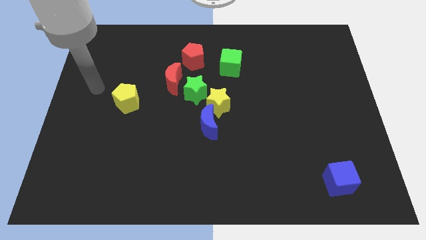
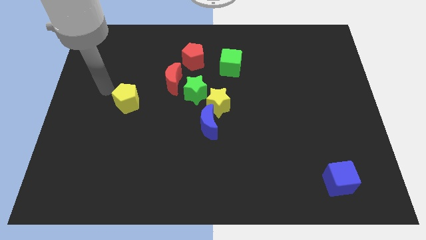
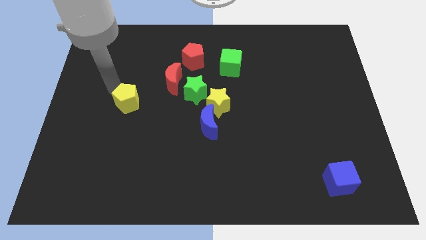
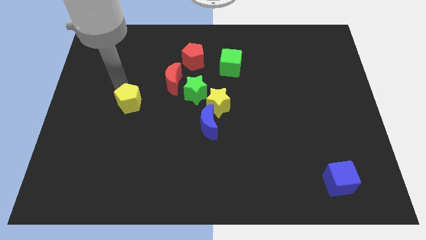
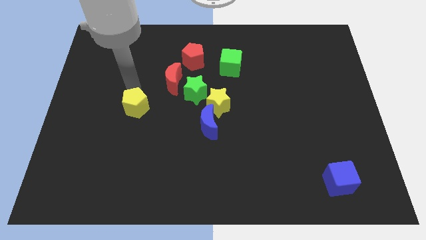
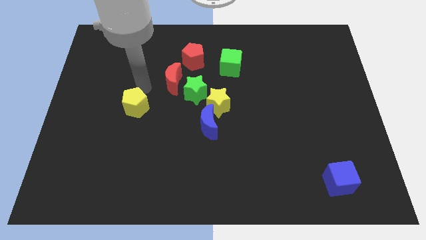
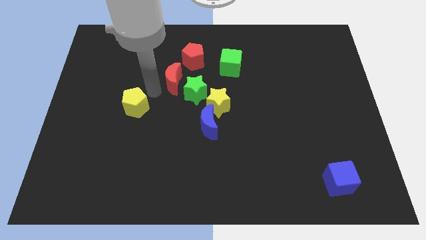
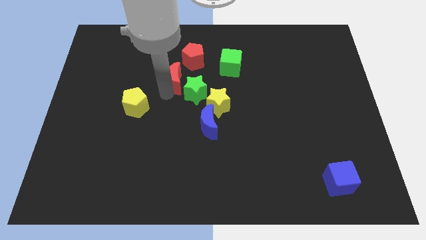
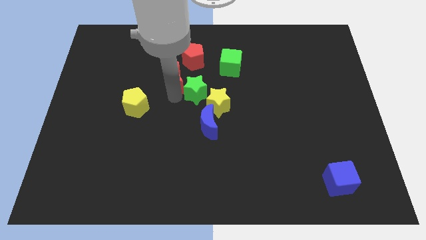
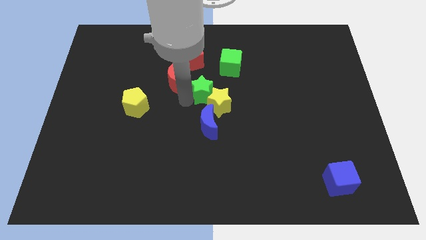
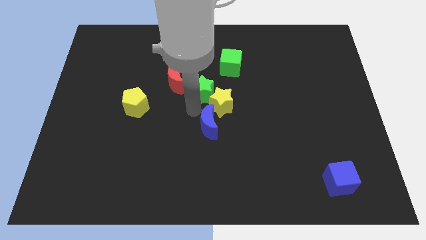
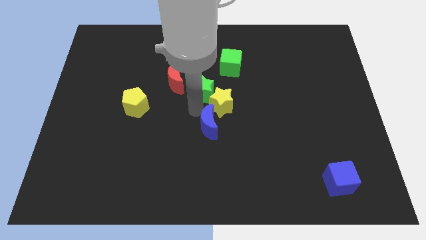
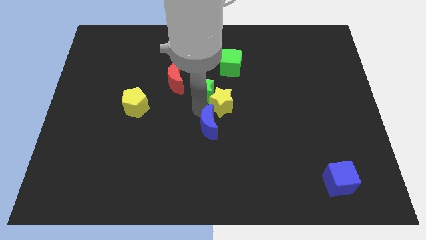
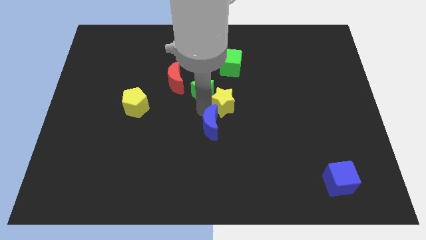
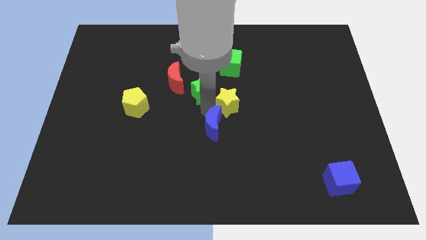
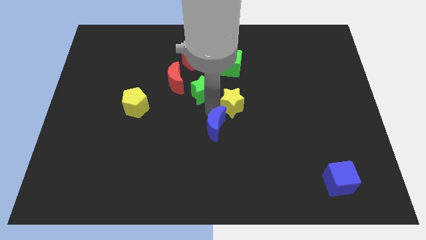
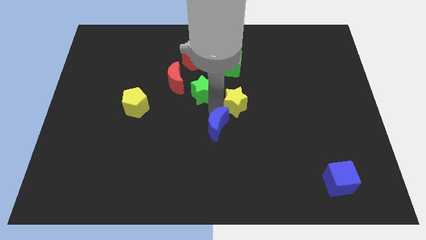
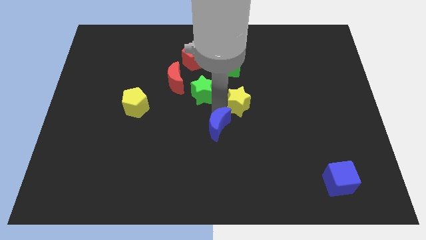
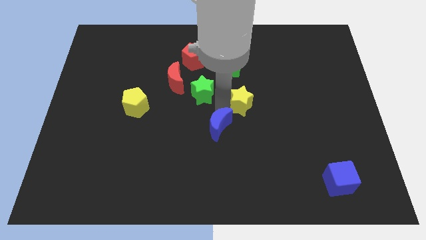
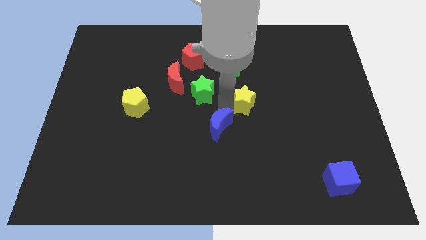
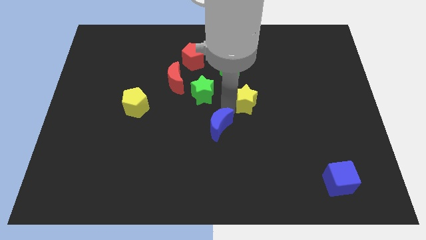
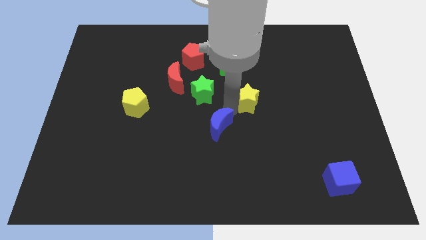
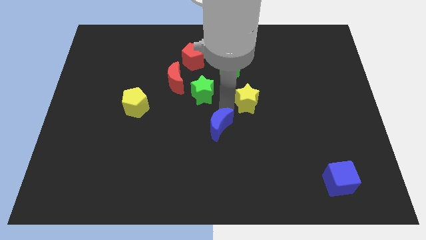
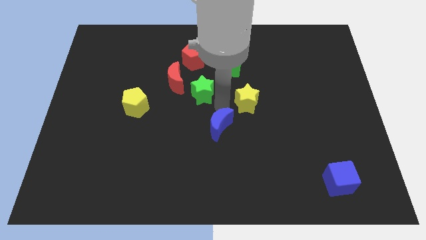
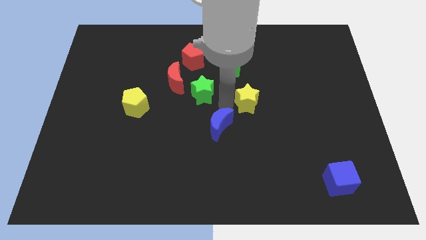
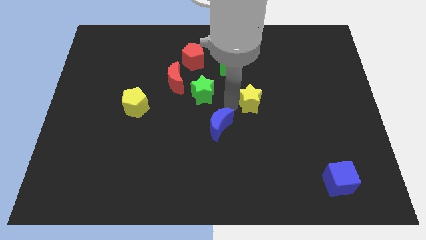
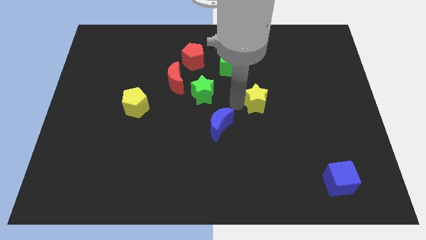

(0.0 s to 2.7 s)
pull the yellow star apart from the blue moon and green star

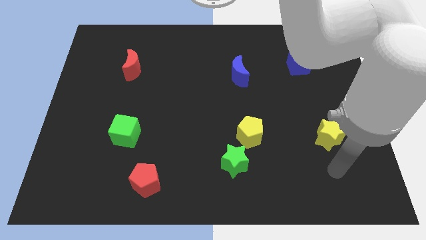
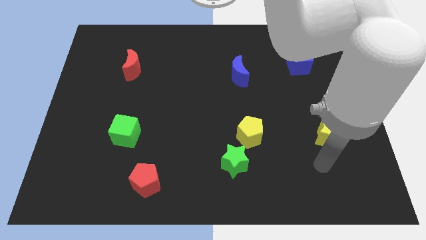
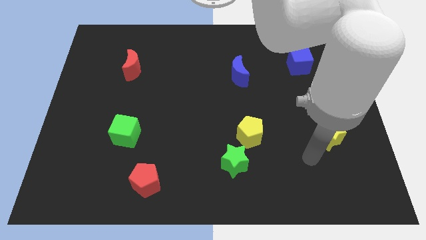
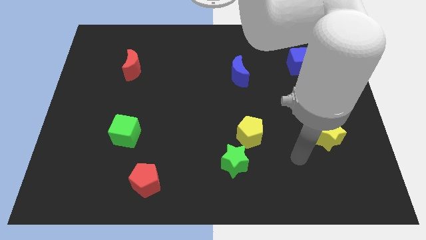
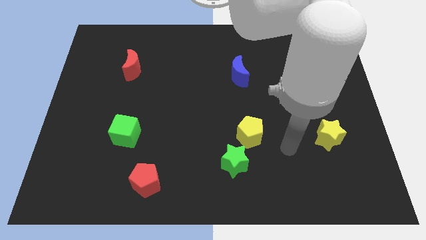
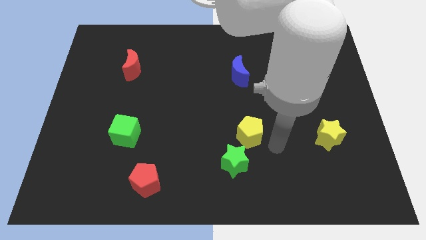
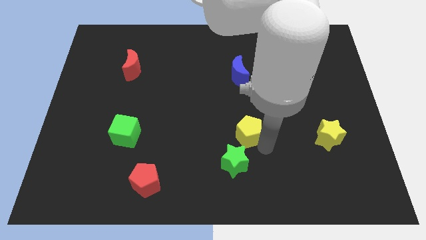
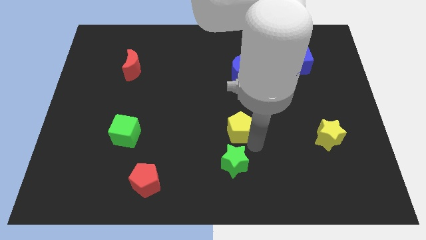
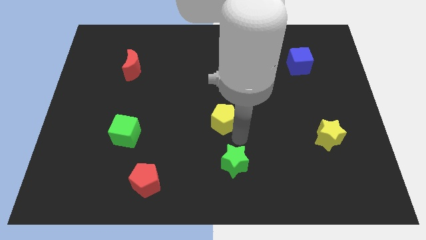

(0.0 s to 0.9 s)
separate the green star from the yellow pentagon

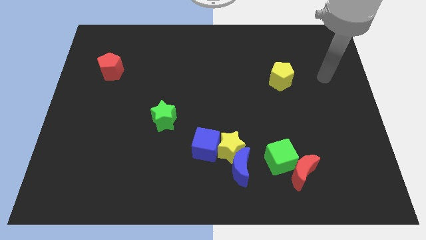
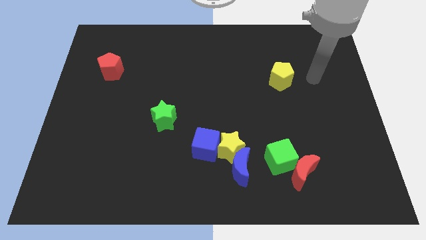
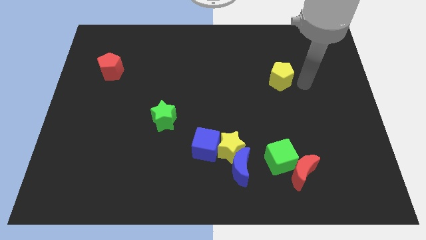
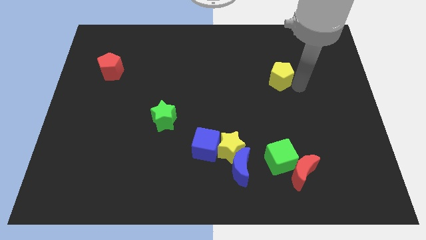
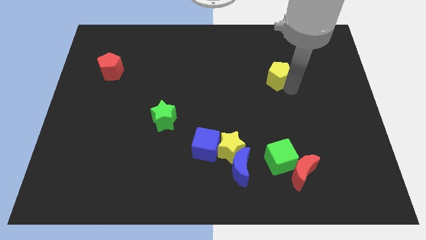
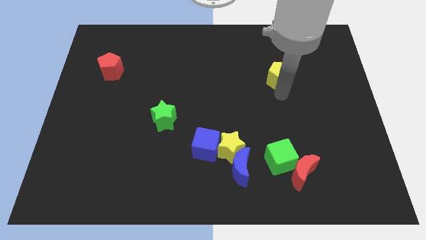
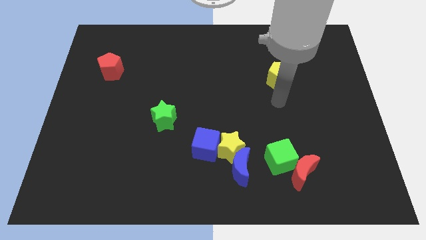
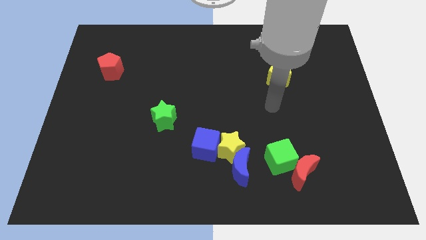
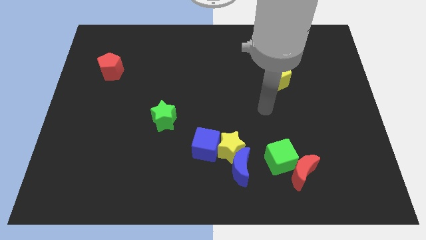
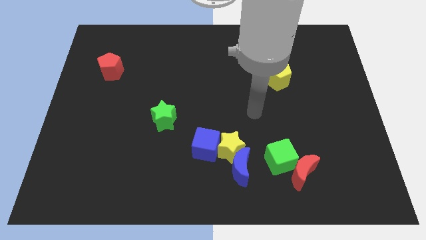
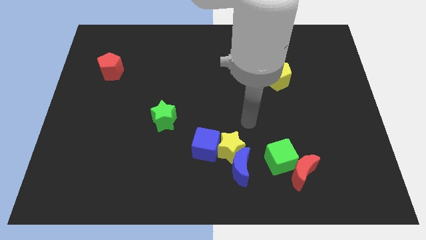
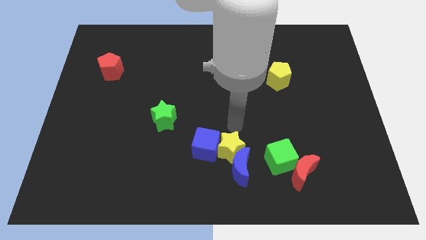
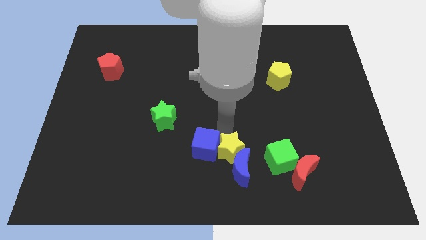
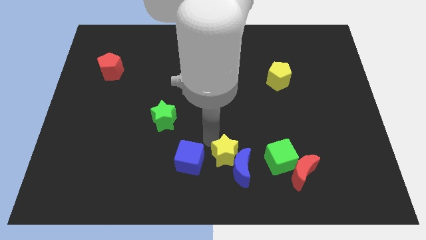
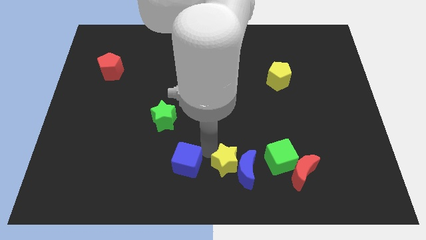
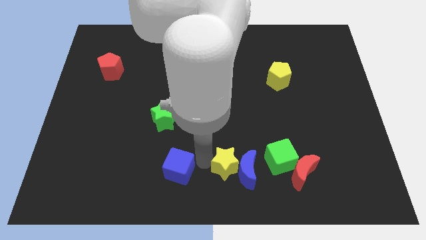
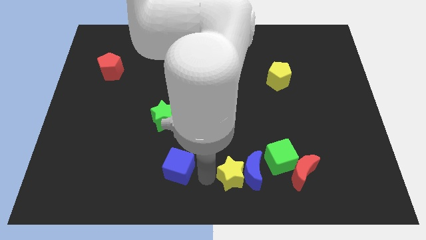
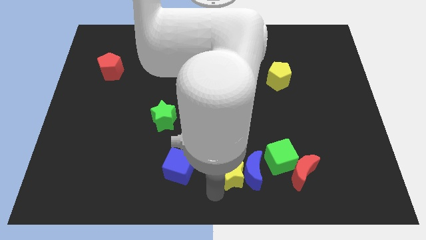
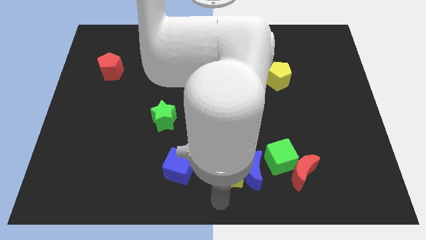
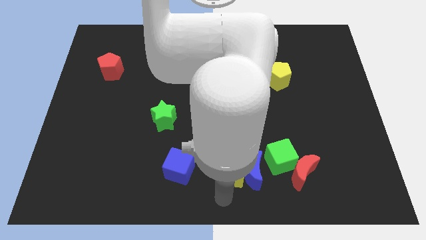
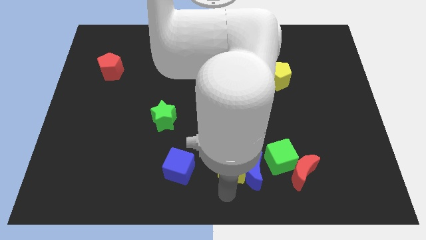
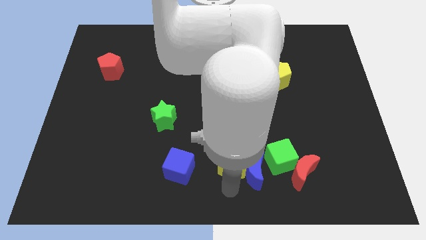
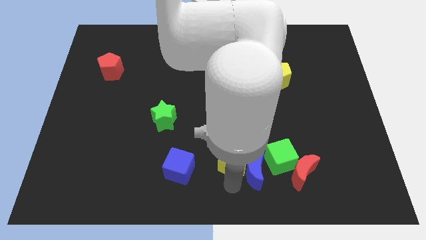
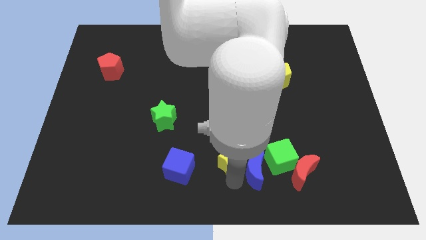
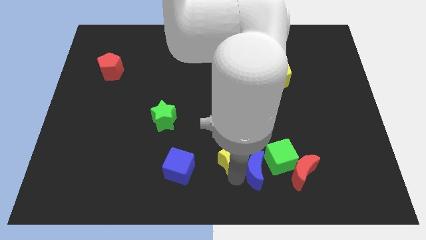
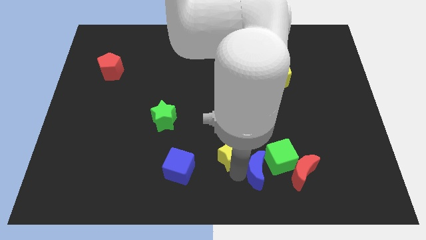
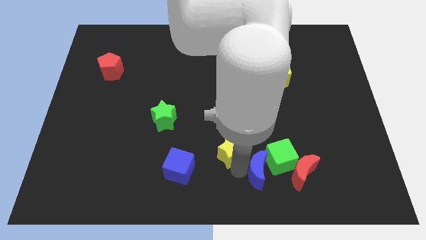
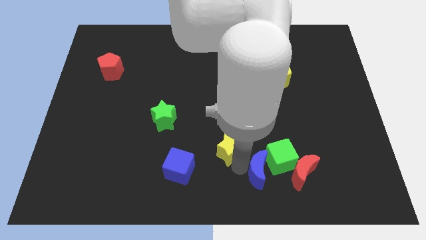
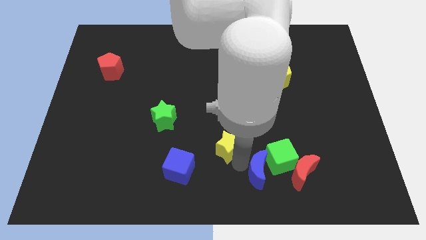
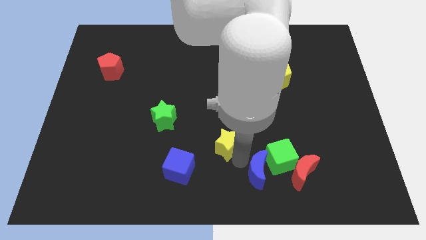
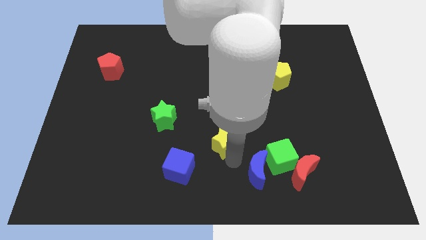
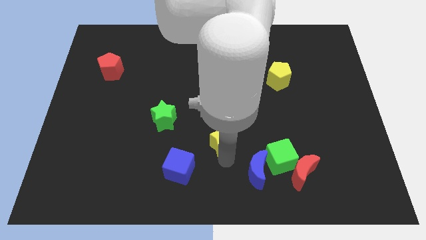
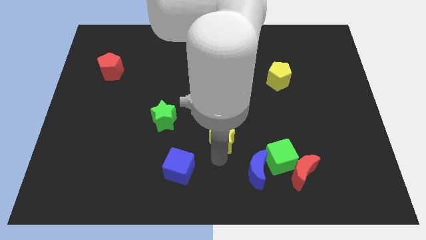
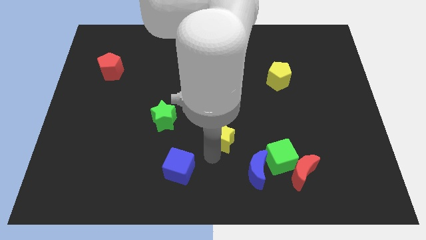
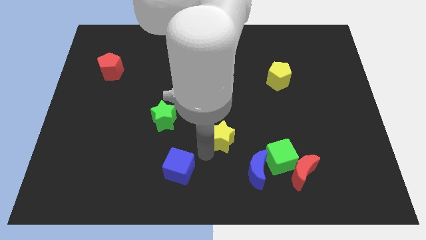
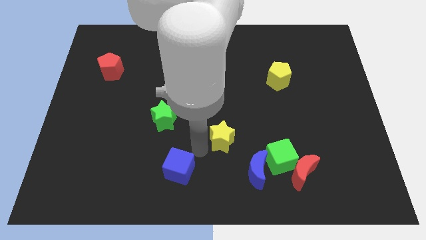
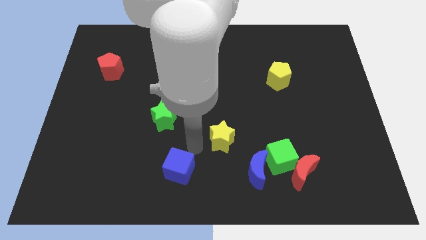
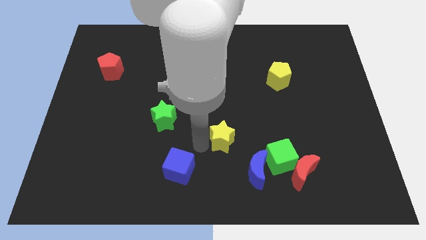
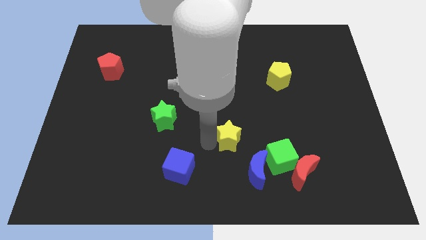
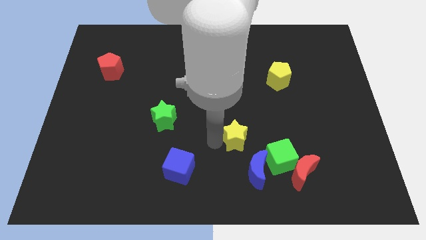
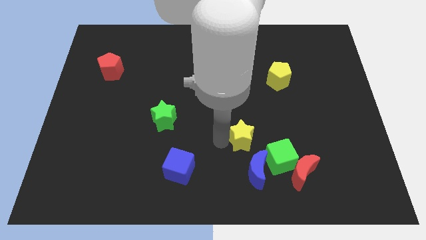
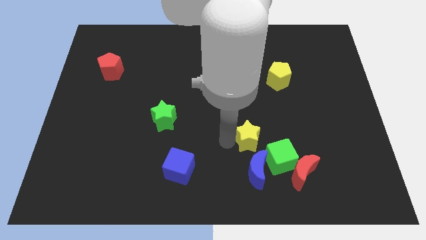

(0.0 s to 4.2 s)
pull the yellow star apart from the blue moon and blue cube

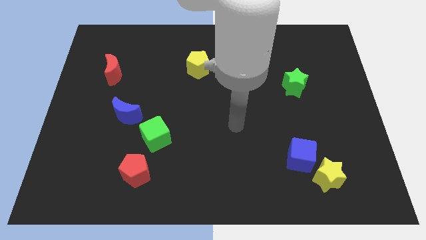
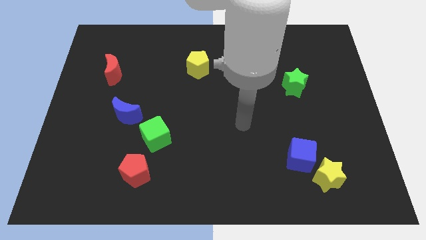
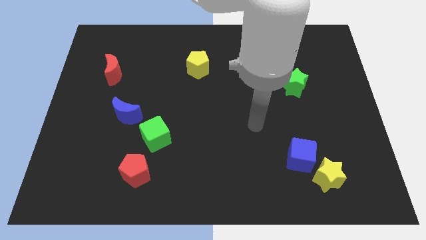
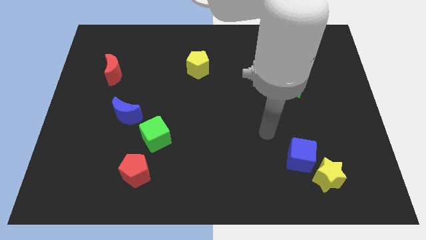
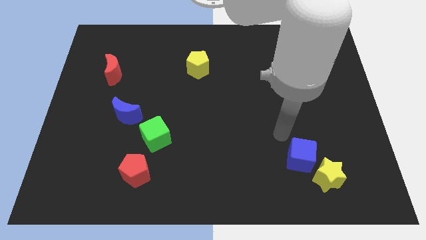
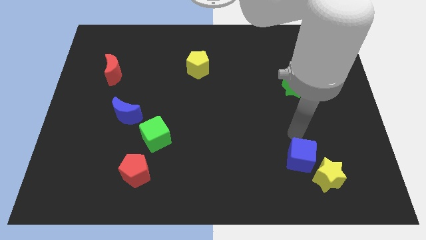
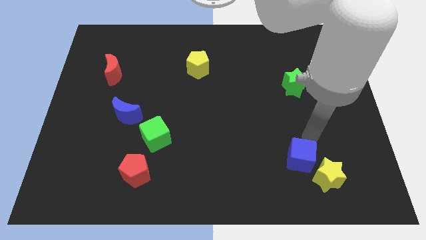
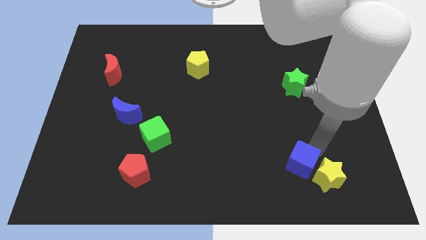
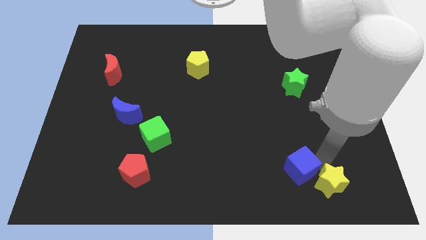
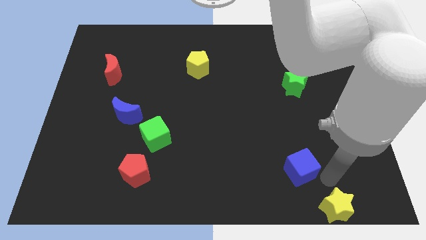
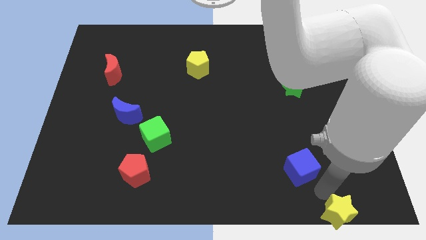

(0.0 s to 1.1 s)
move the blue cube away from the yellow star

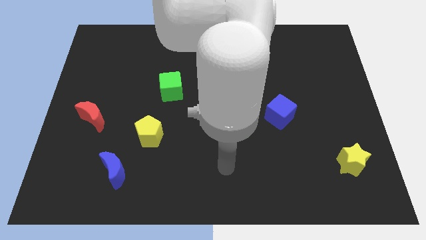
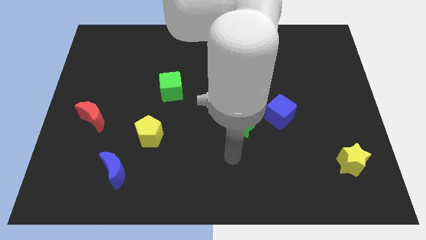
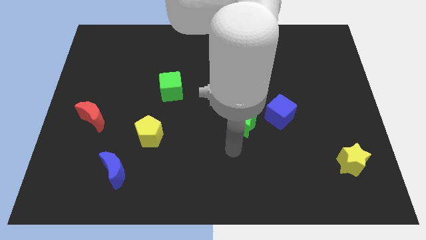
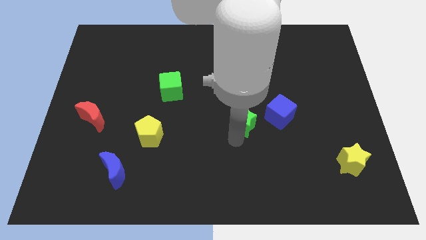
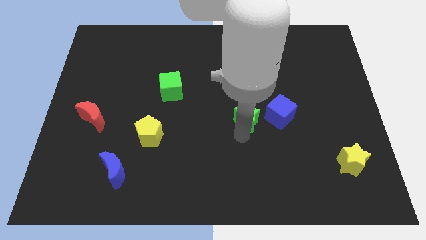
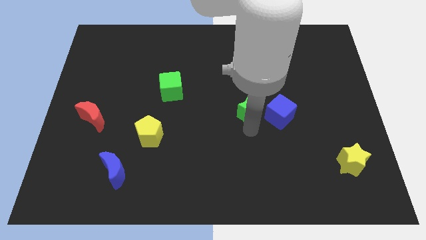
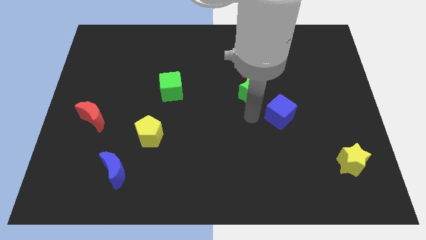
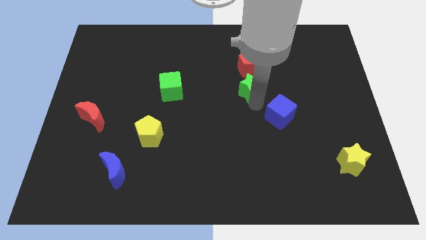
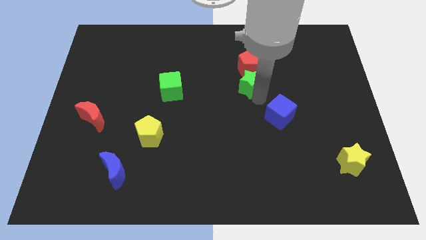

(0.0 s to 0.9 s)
move the blue cube away from the green star
